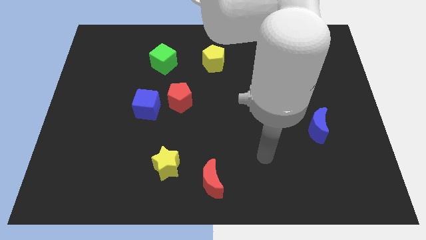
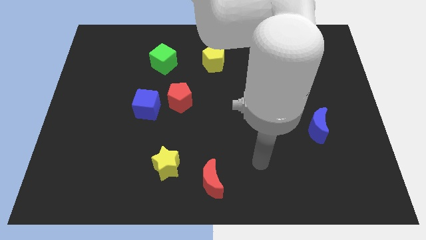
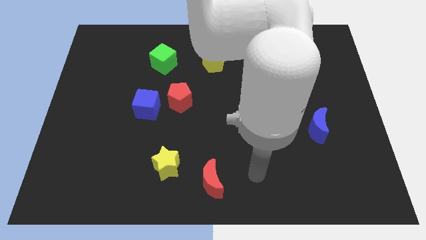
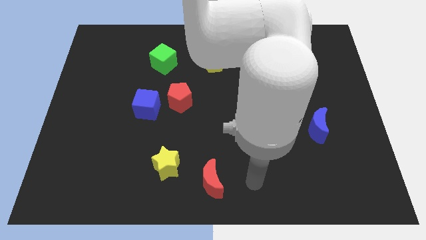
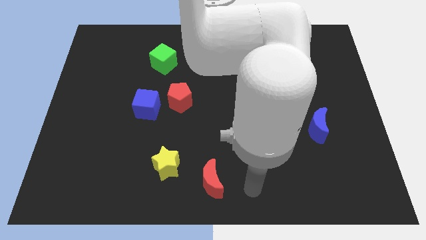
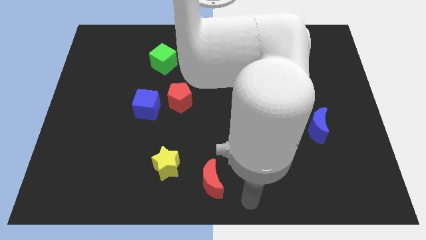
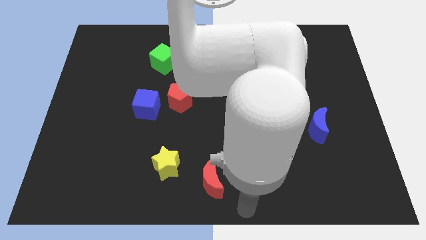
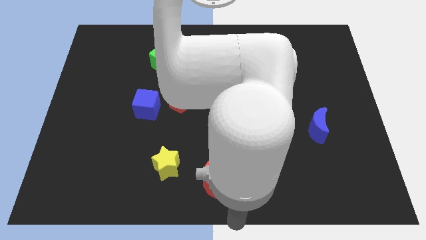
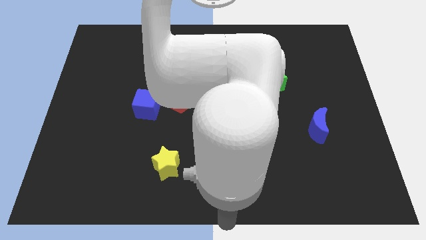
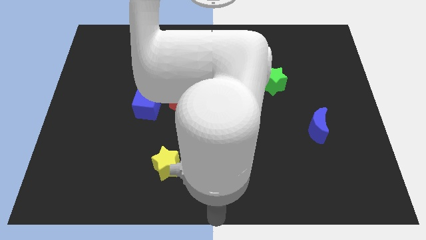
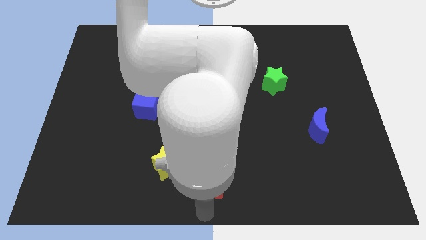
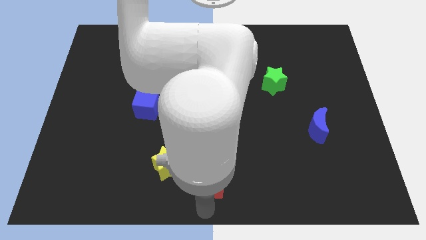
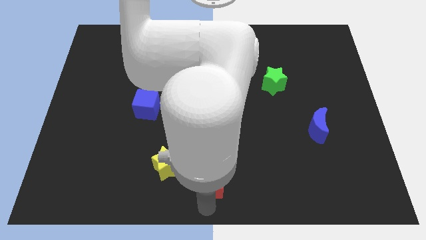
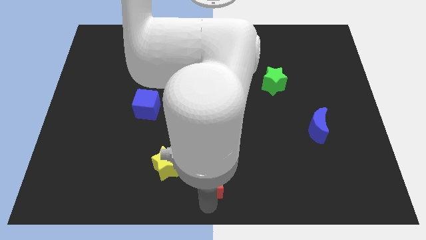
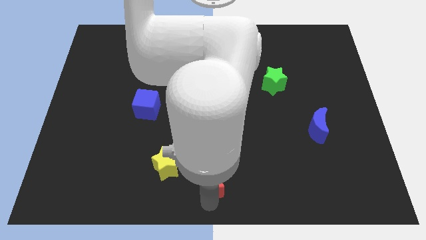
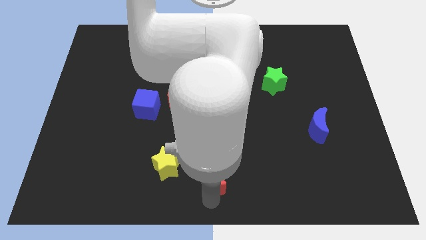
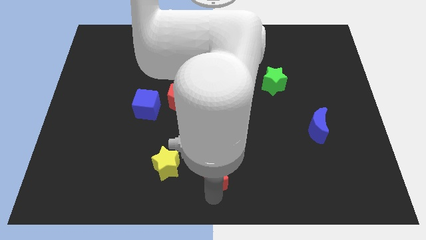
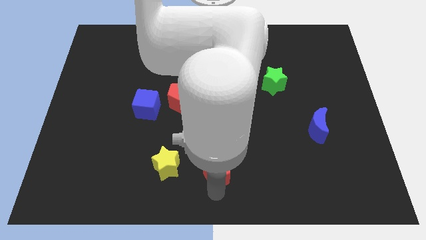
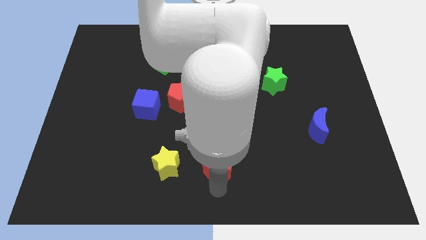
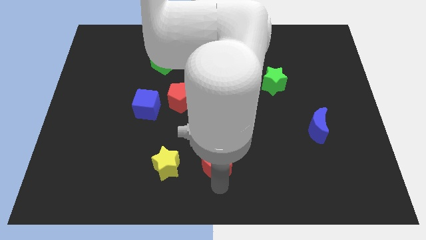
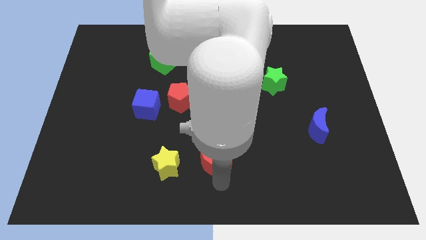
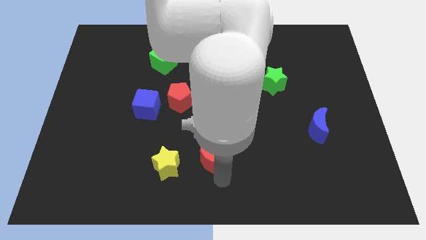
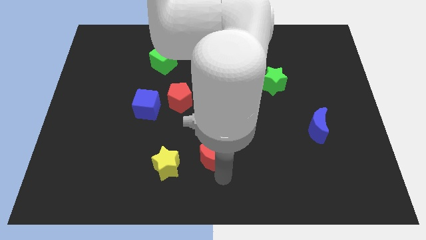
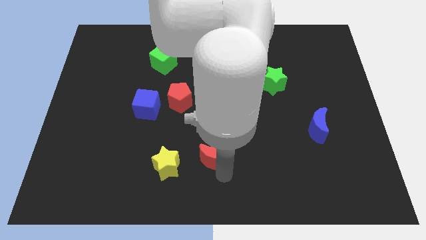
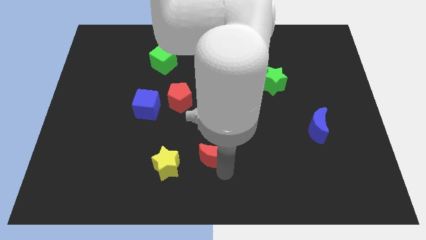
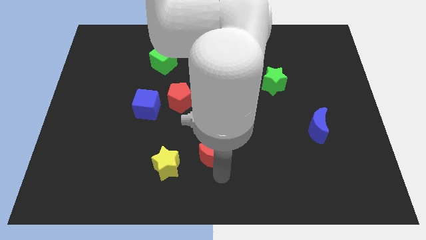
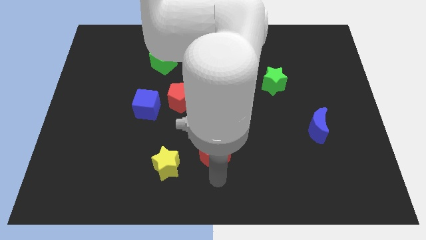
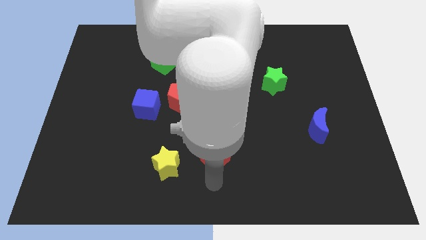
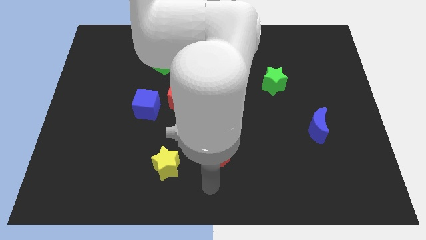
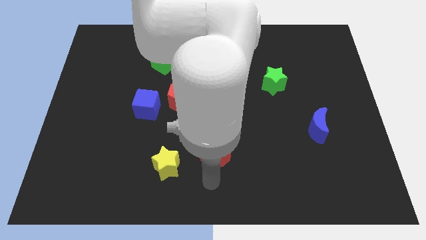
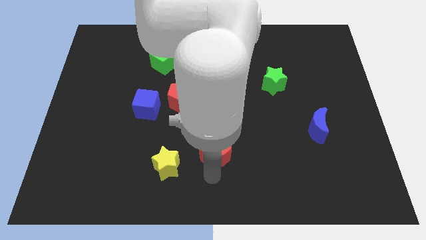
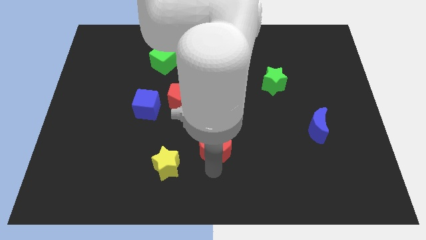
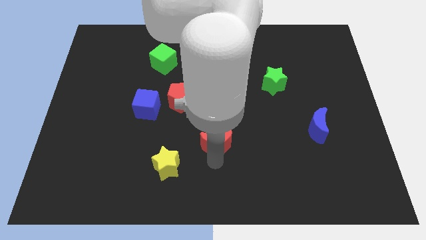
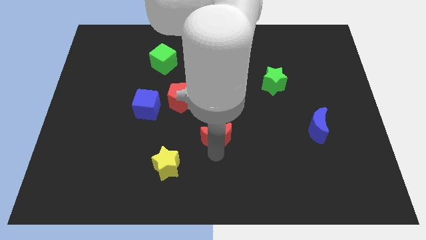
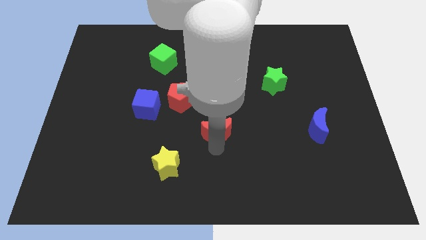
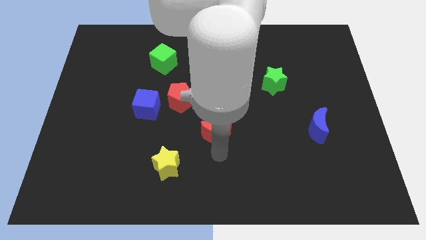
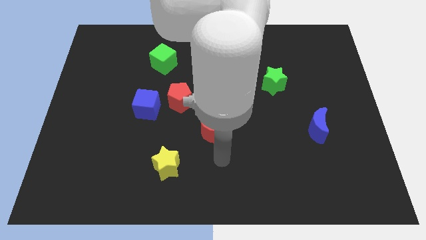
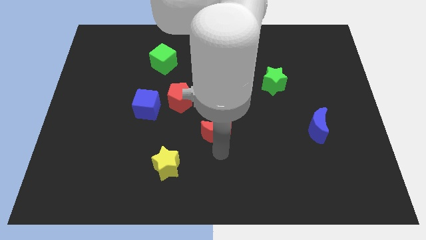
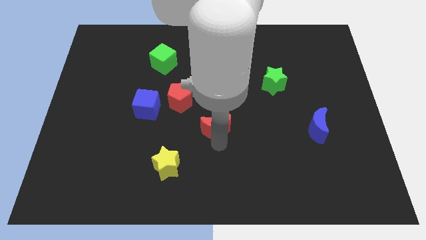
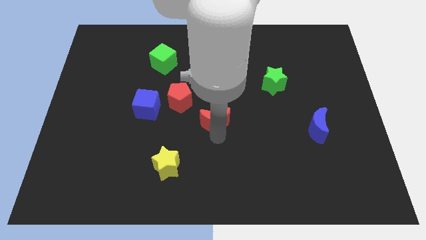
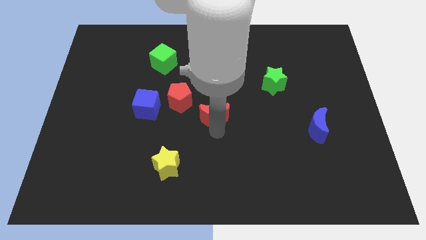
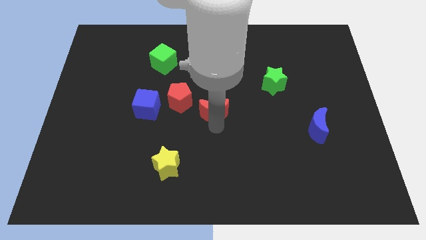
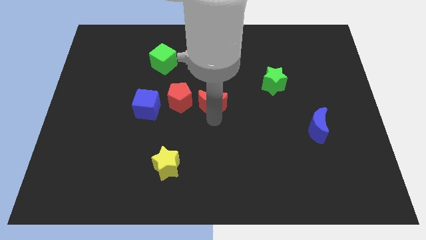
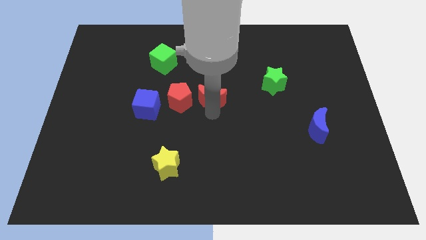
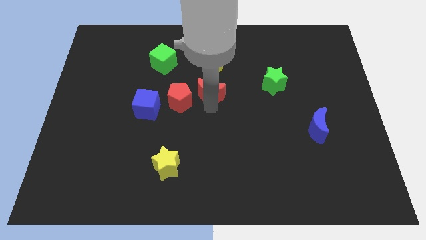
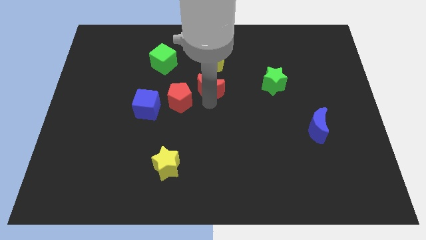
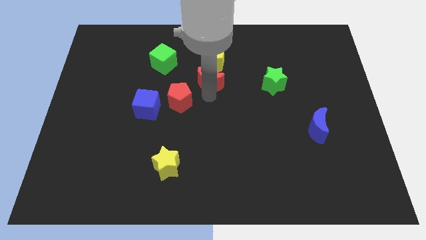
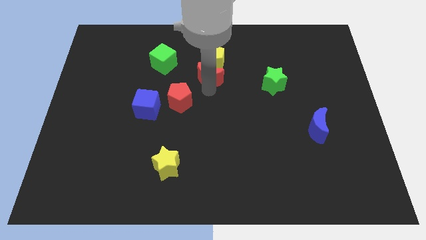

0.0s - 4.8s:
move the red moon to the yellow pentagon

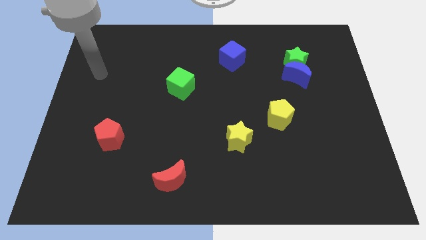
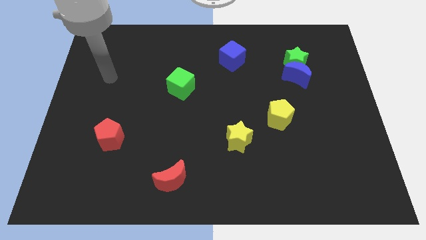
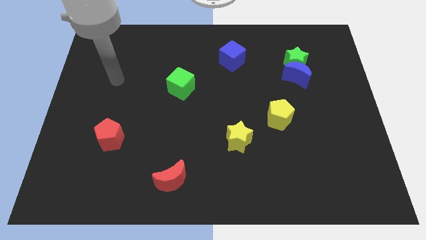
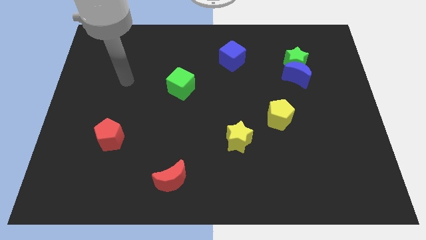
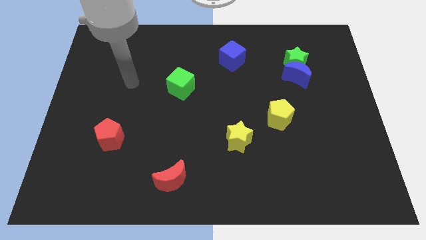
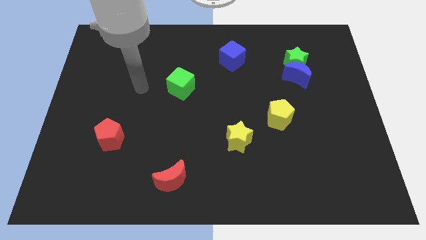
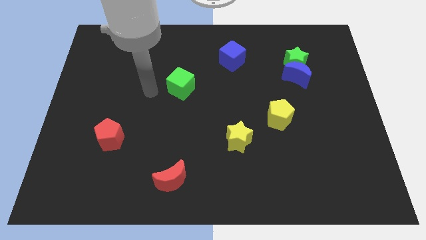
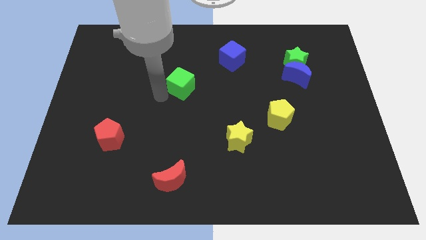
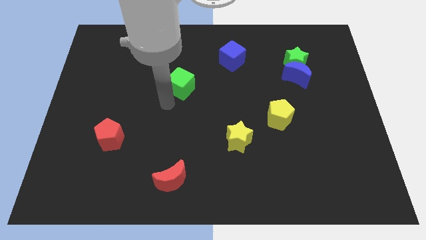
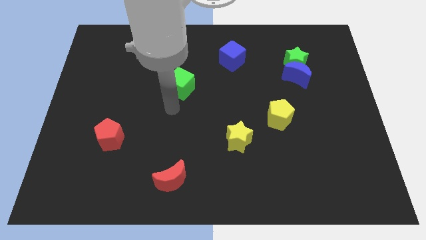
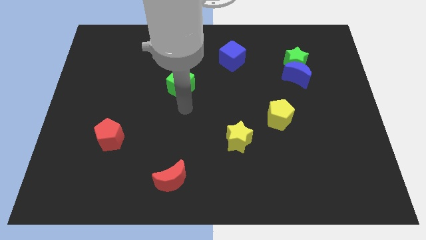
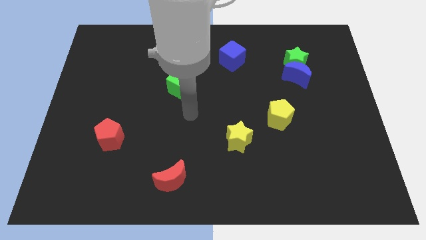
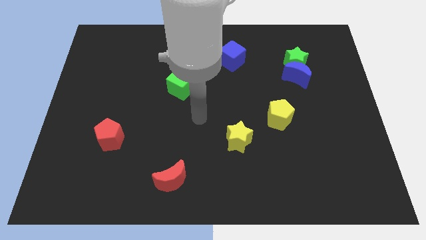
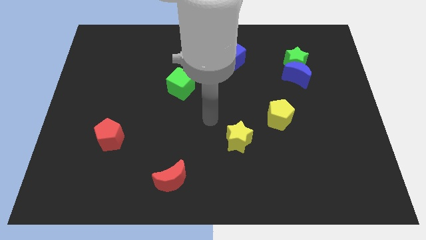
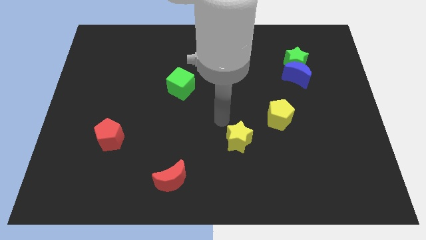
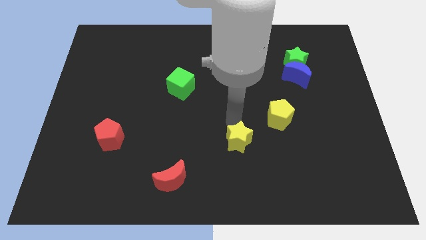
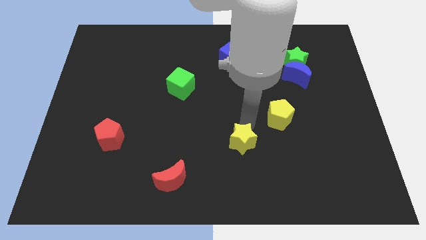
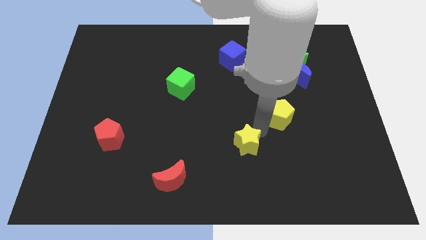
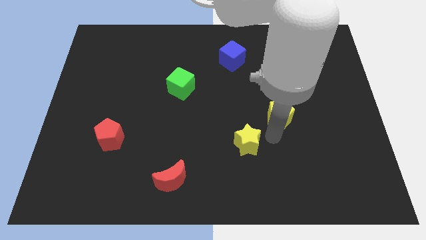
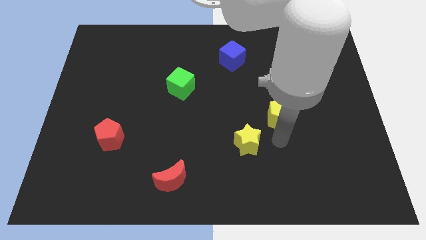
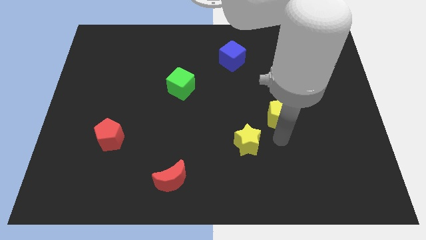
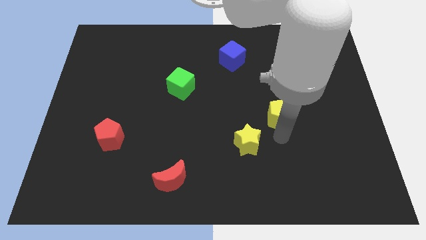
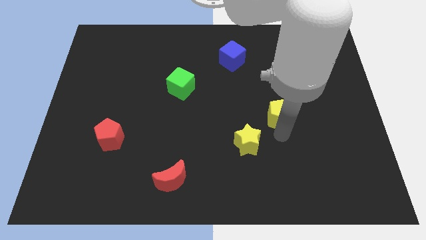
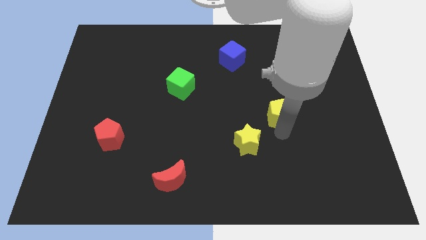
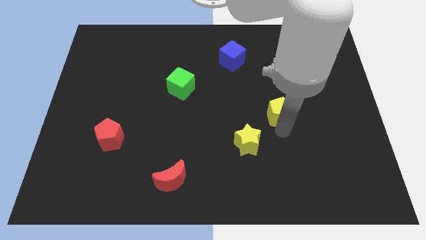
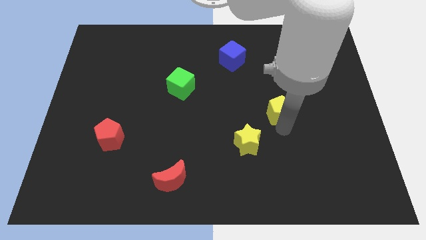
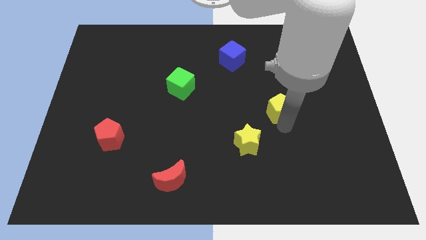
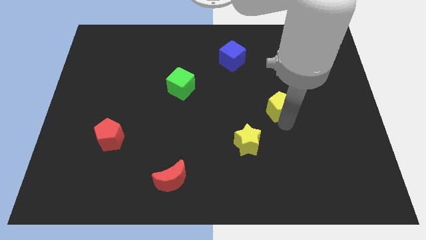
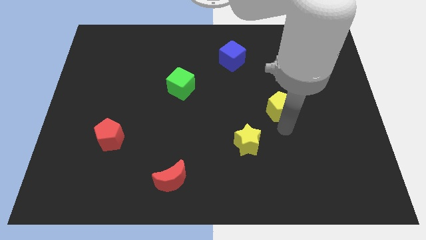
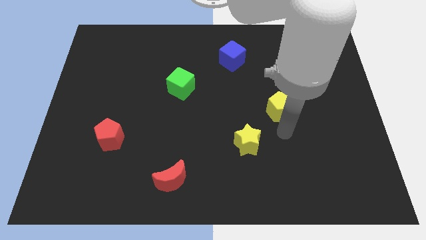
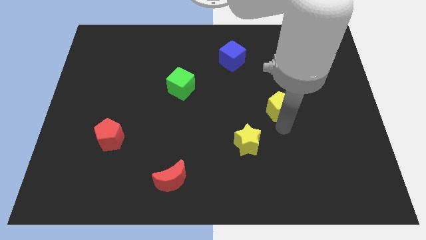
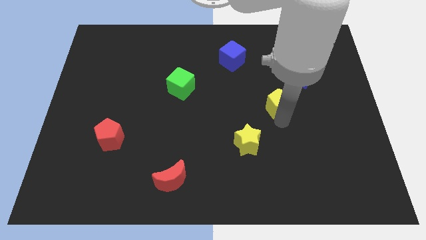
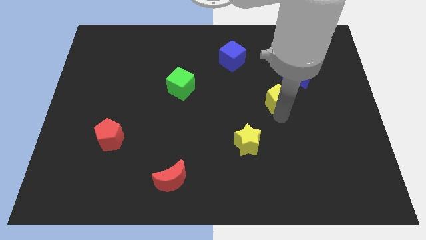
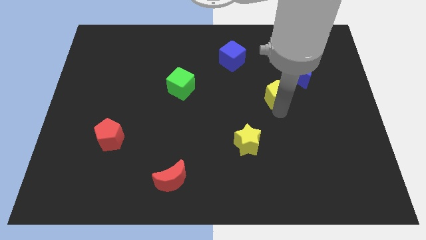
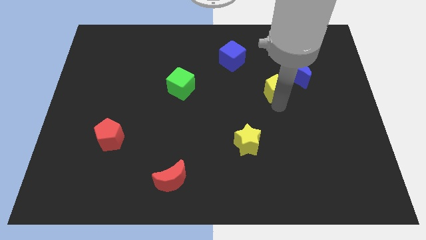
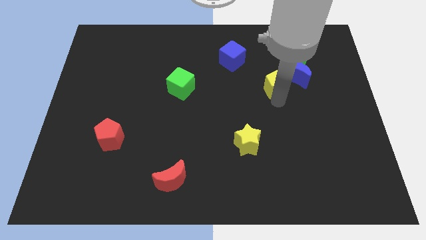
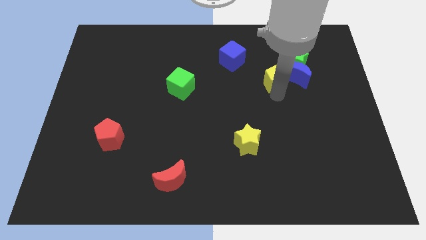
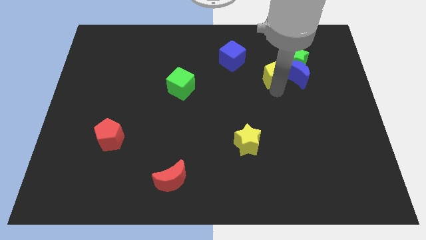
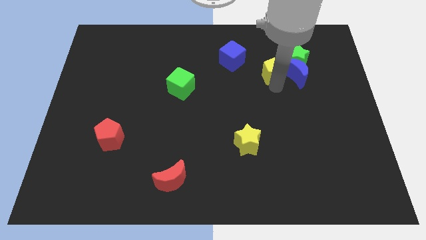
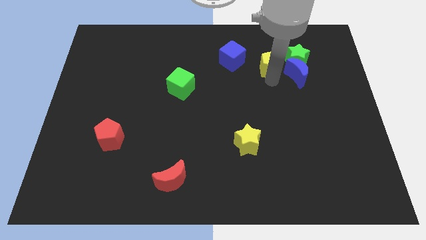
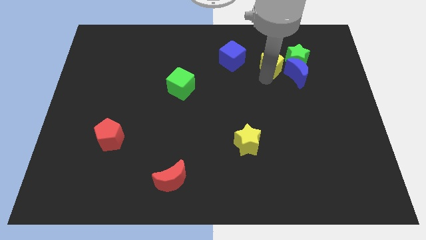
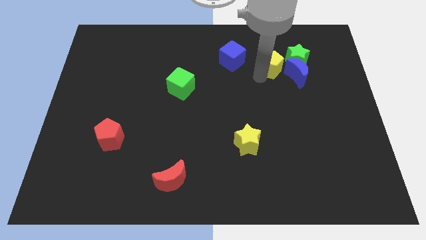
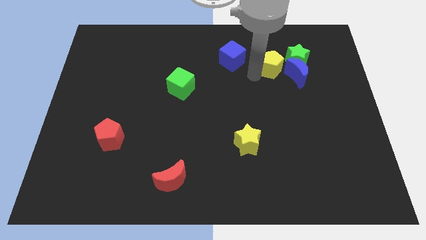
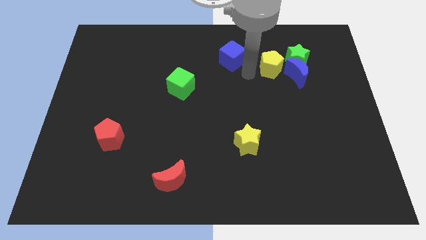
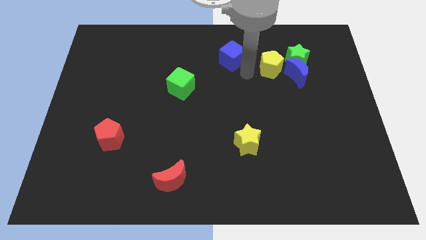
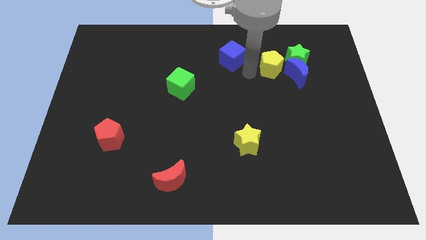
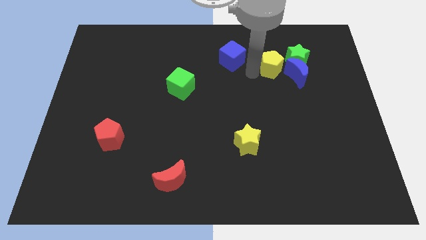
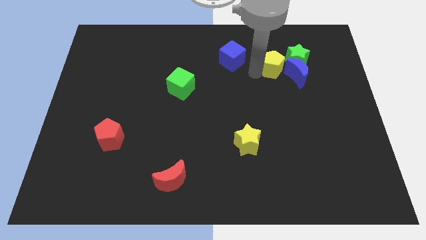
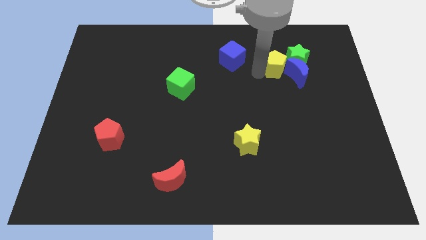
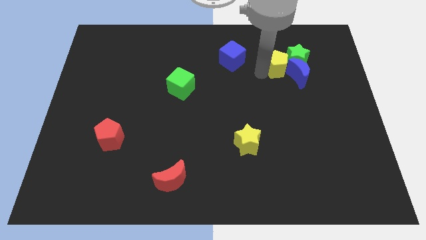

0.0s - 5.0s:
move the yellow pentagon towards the green star
